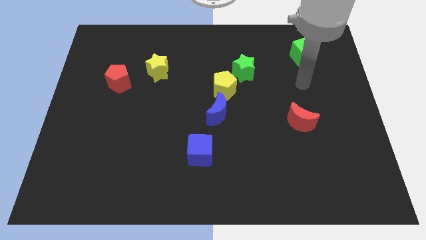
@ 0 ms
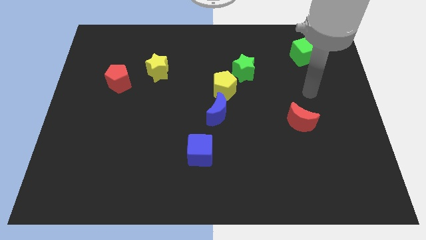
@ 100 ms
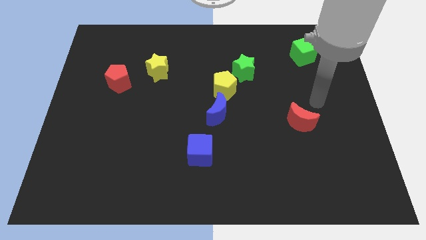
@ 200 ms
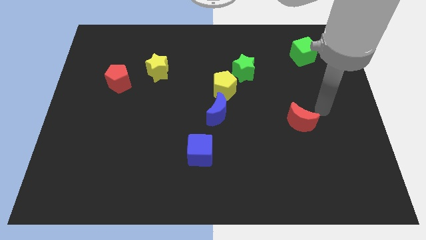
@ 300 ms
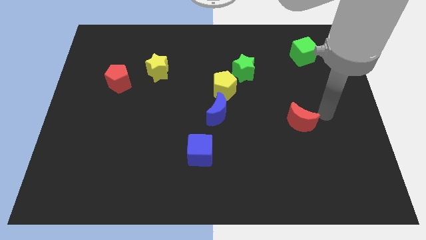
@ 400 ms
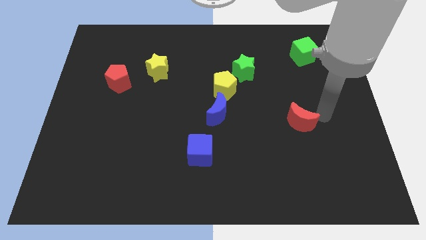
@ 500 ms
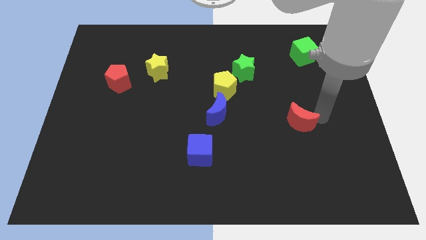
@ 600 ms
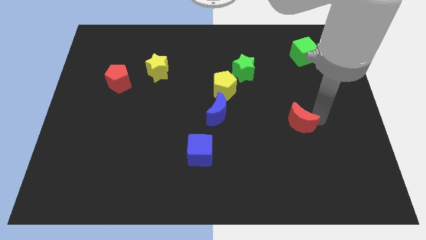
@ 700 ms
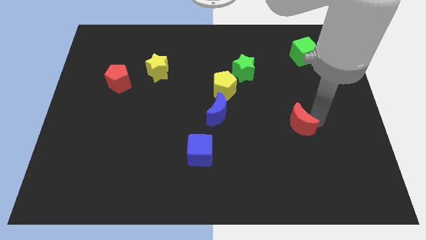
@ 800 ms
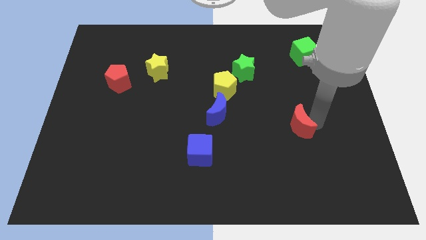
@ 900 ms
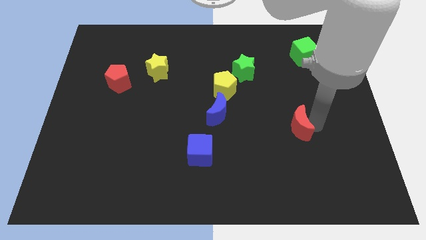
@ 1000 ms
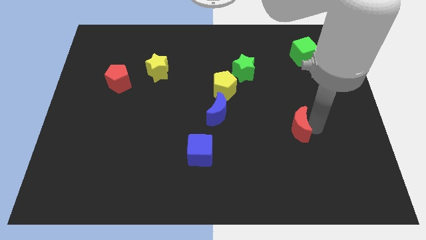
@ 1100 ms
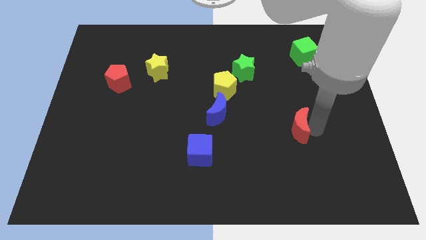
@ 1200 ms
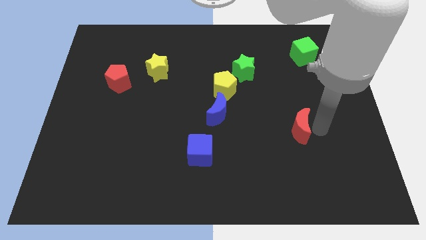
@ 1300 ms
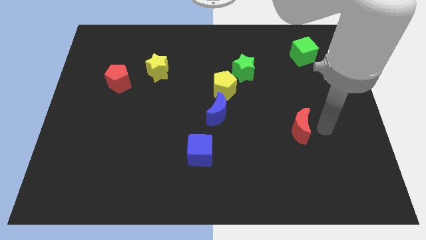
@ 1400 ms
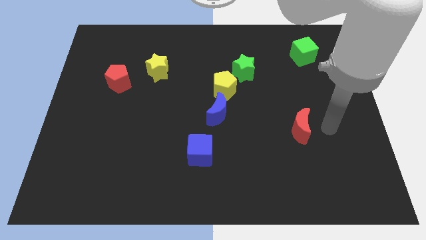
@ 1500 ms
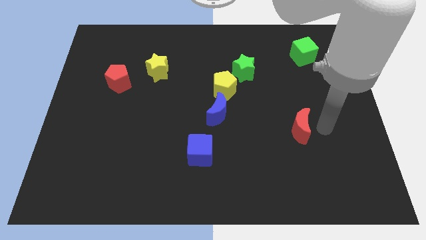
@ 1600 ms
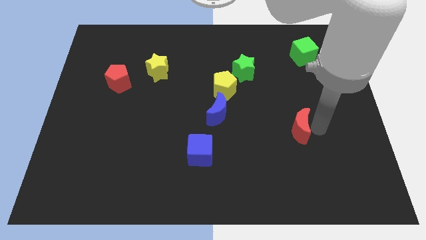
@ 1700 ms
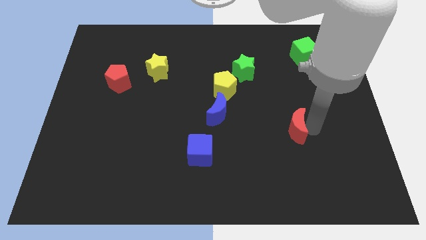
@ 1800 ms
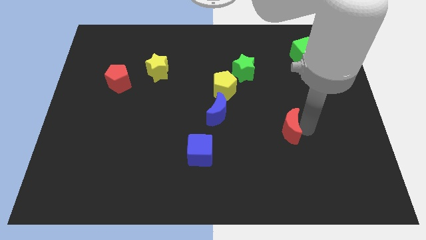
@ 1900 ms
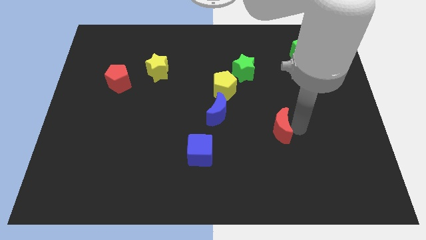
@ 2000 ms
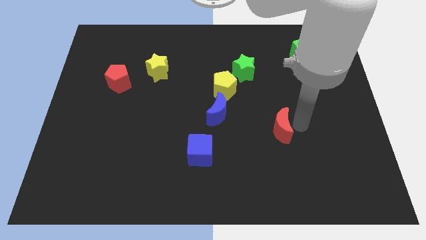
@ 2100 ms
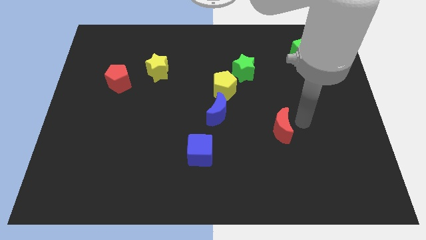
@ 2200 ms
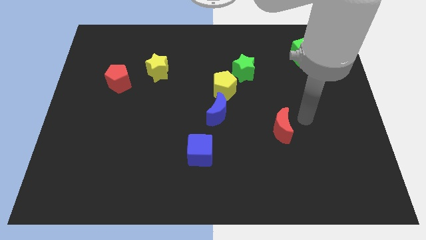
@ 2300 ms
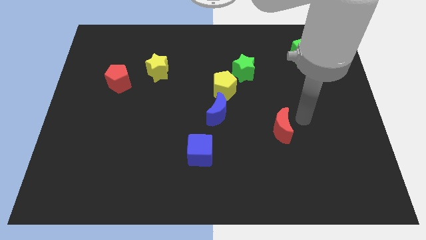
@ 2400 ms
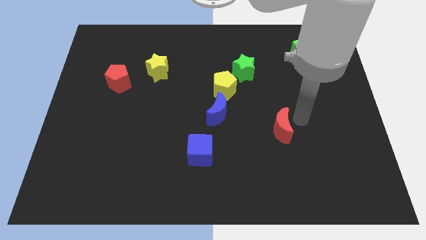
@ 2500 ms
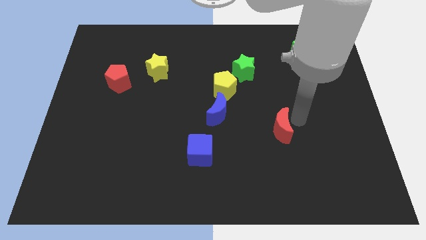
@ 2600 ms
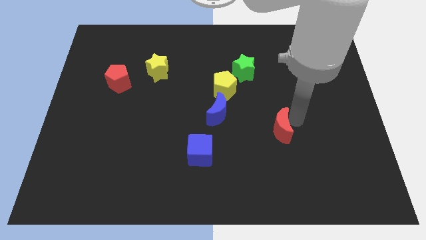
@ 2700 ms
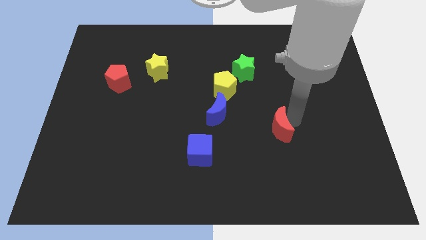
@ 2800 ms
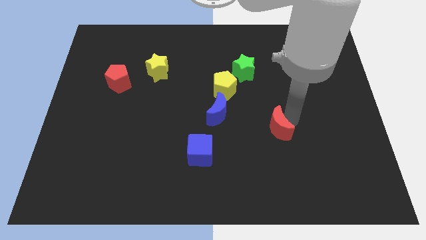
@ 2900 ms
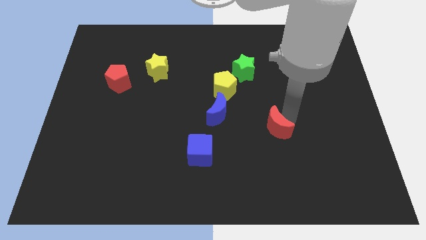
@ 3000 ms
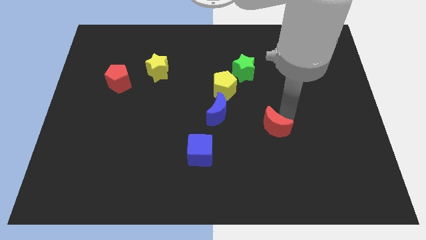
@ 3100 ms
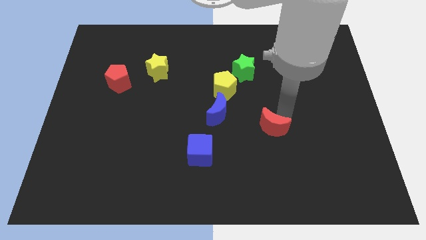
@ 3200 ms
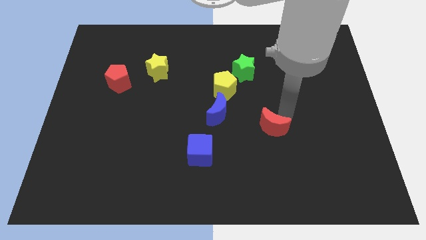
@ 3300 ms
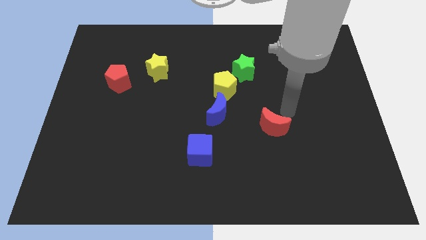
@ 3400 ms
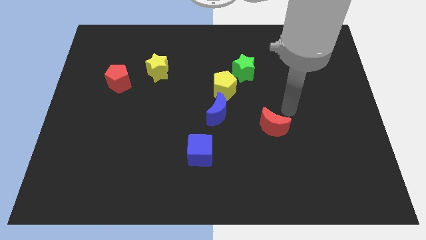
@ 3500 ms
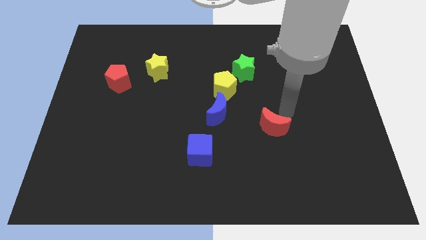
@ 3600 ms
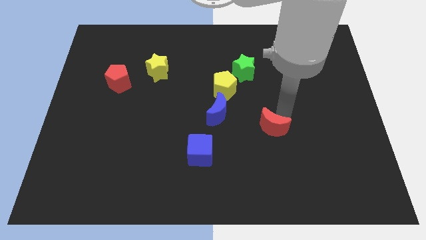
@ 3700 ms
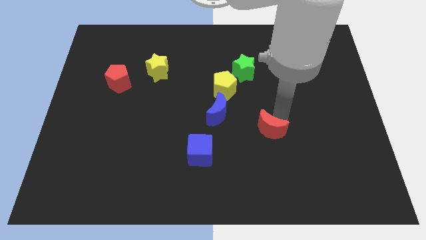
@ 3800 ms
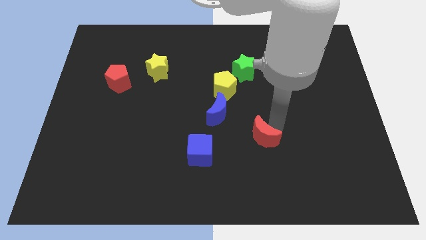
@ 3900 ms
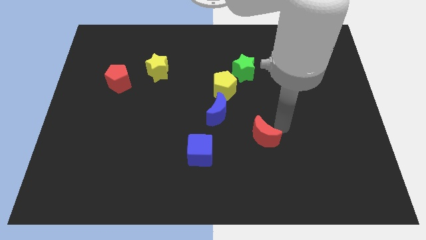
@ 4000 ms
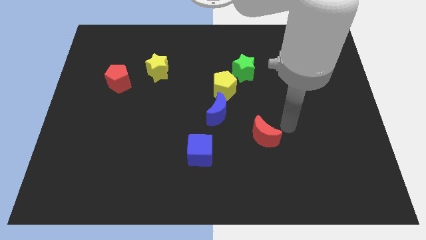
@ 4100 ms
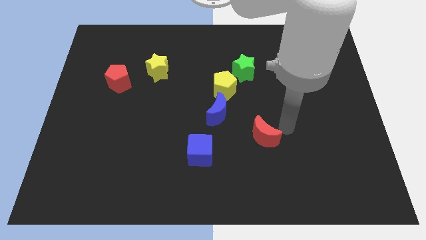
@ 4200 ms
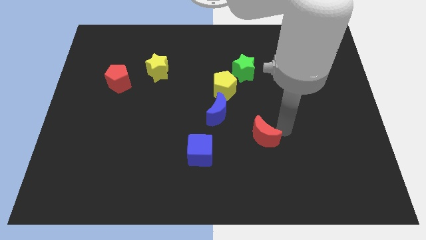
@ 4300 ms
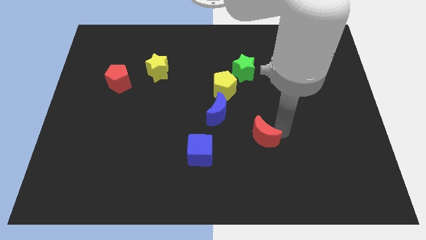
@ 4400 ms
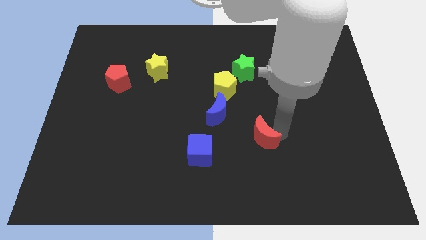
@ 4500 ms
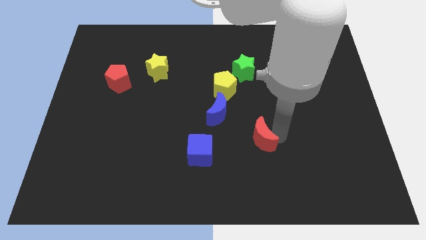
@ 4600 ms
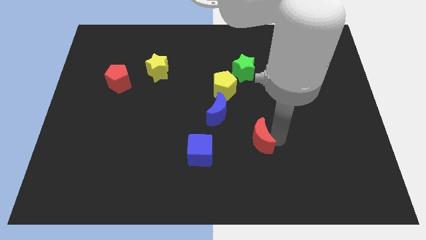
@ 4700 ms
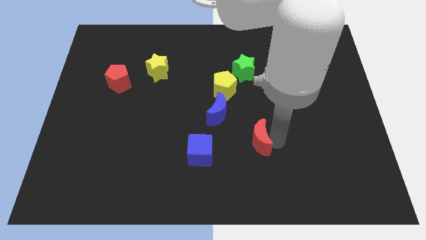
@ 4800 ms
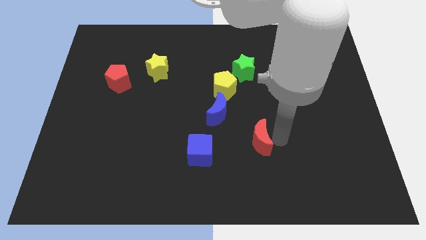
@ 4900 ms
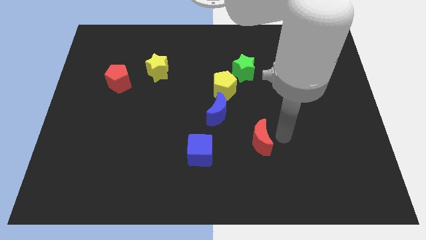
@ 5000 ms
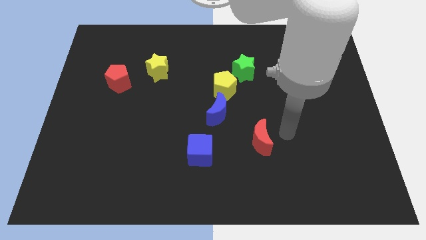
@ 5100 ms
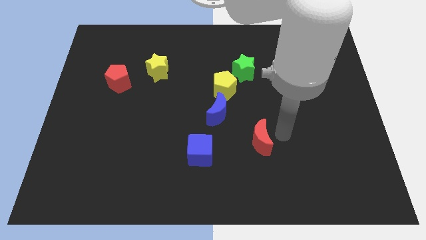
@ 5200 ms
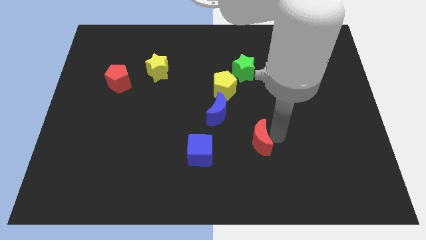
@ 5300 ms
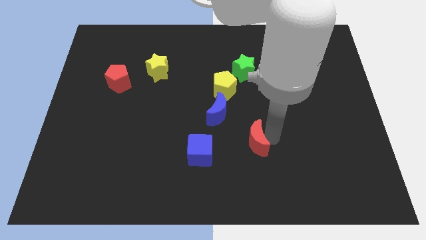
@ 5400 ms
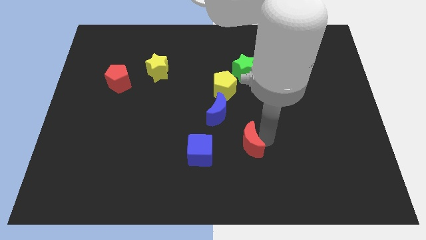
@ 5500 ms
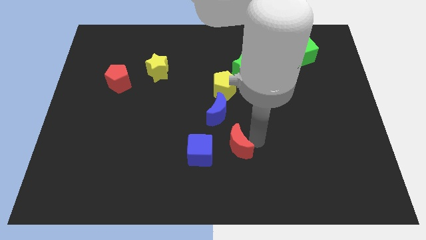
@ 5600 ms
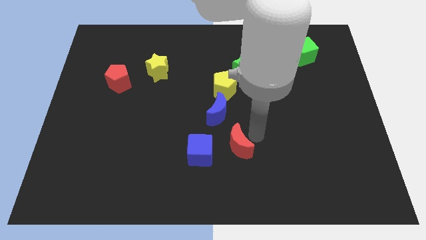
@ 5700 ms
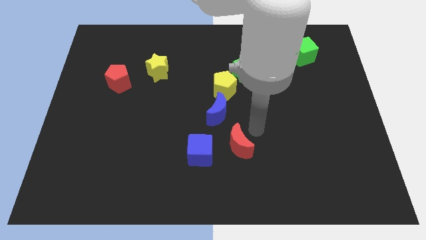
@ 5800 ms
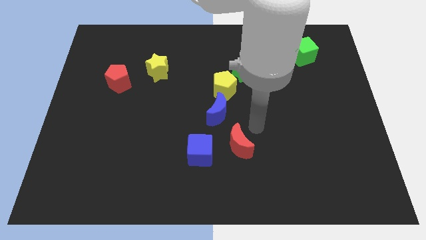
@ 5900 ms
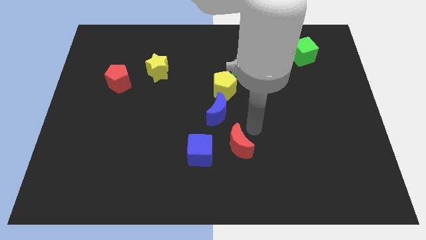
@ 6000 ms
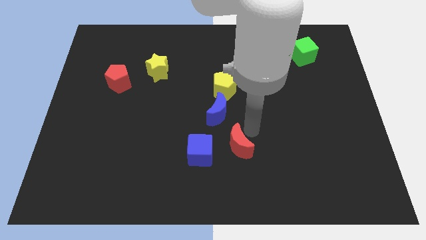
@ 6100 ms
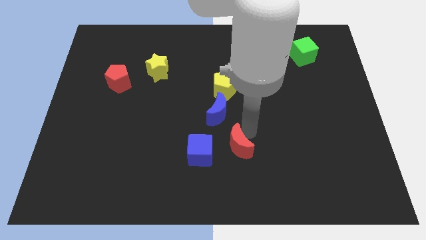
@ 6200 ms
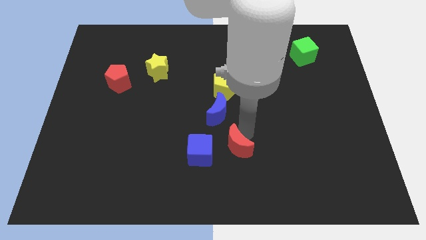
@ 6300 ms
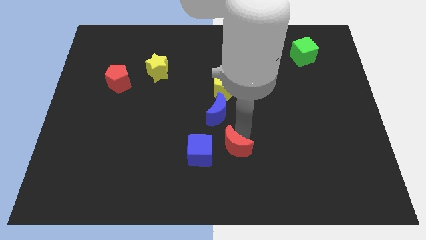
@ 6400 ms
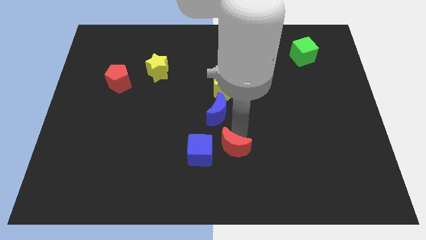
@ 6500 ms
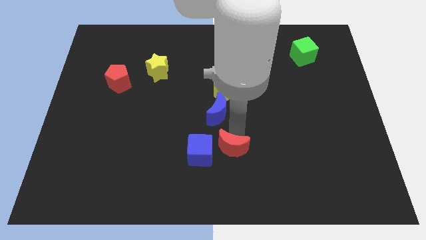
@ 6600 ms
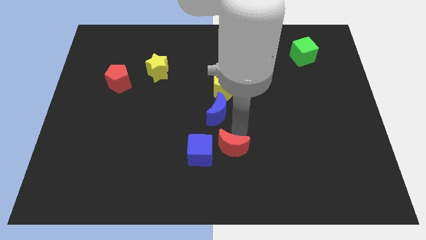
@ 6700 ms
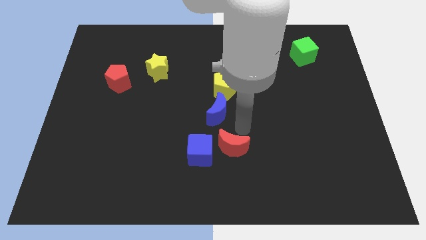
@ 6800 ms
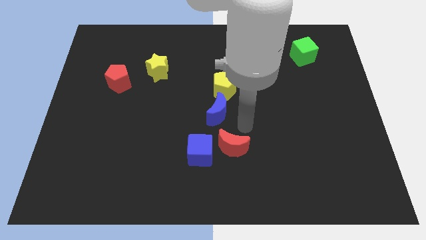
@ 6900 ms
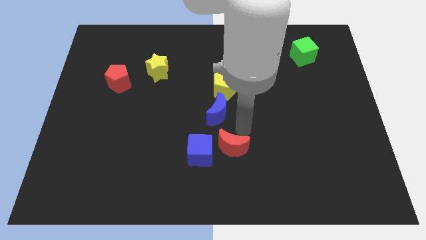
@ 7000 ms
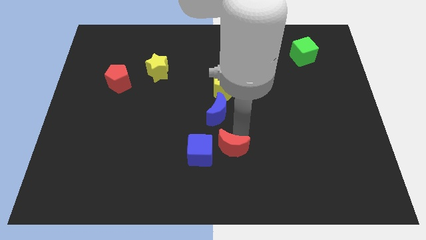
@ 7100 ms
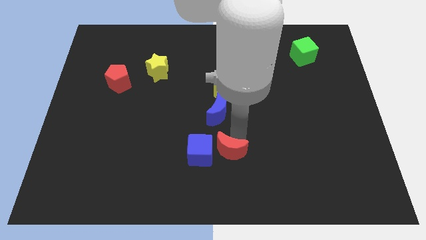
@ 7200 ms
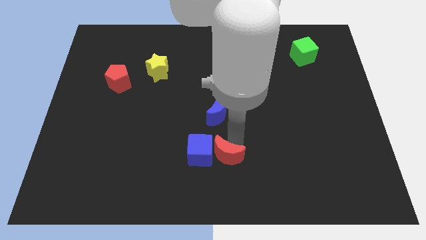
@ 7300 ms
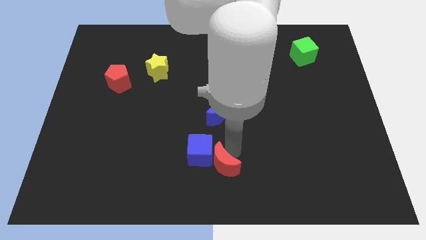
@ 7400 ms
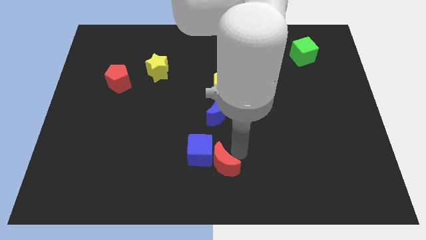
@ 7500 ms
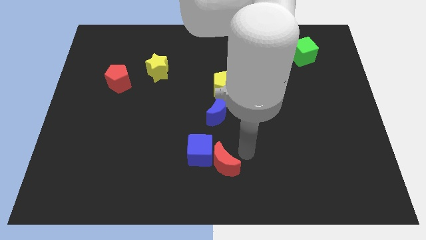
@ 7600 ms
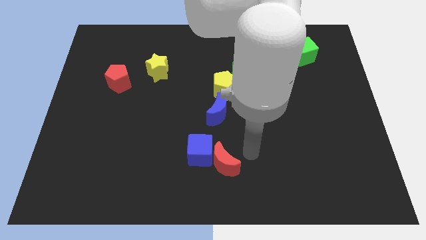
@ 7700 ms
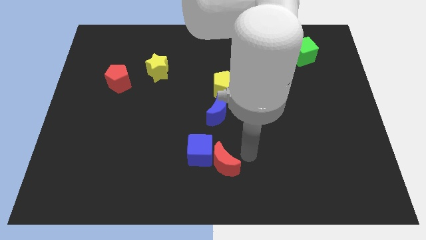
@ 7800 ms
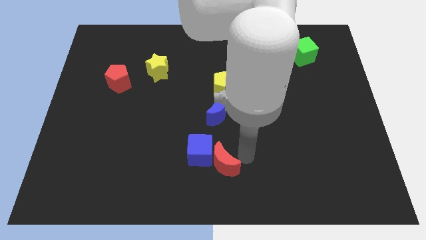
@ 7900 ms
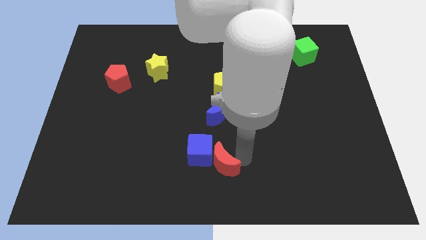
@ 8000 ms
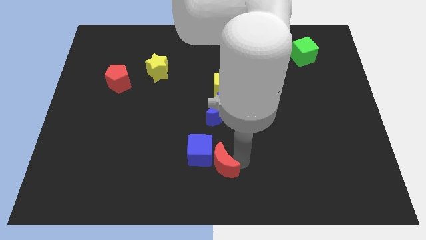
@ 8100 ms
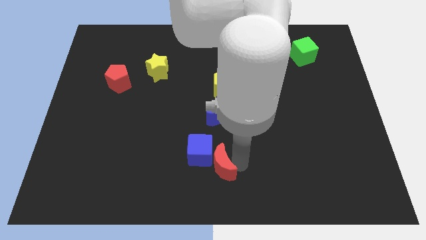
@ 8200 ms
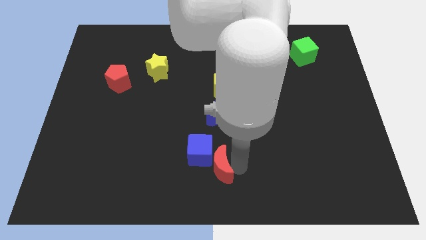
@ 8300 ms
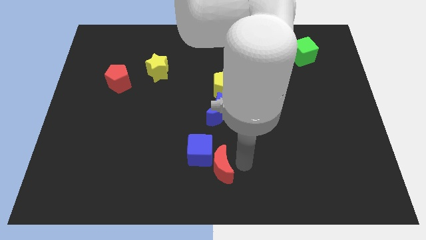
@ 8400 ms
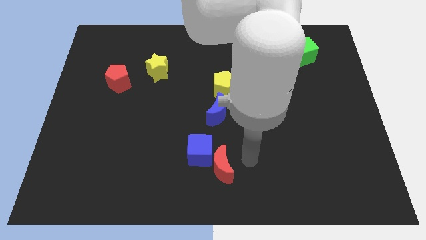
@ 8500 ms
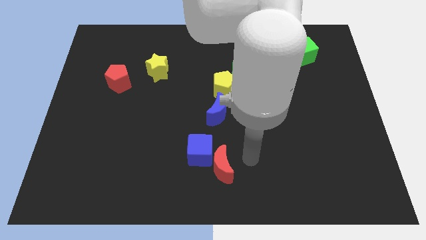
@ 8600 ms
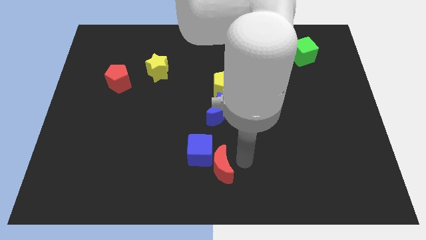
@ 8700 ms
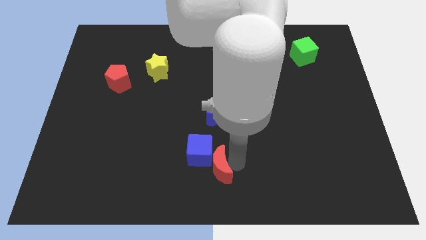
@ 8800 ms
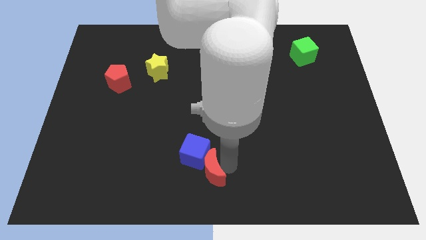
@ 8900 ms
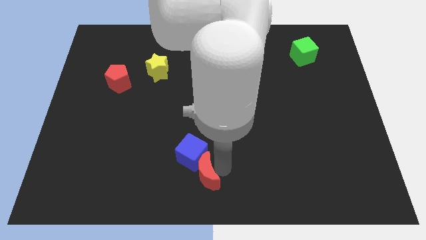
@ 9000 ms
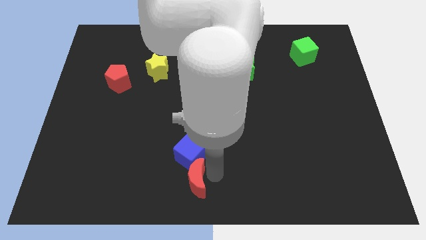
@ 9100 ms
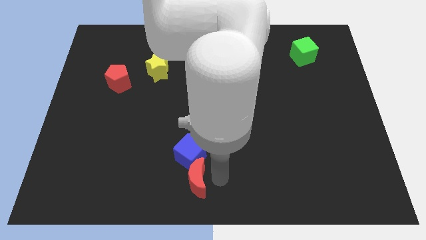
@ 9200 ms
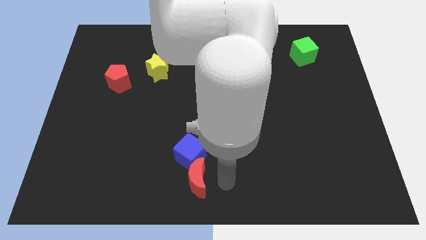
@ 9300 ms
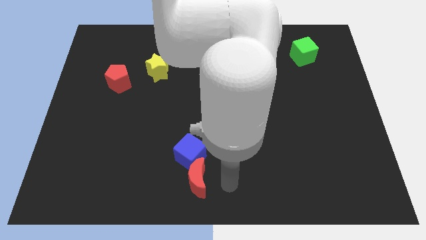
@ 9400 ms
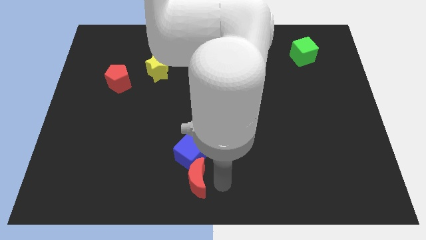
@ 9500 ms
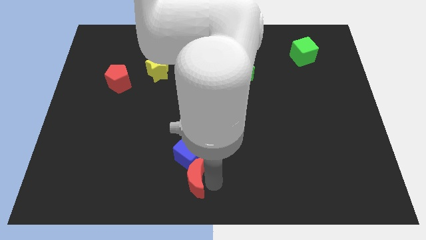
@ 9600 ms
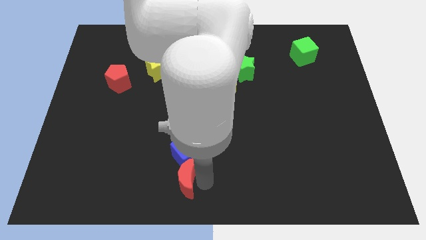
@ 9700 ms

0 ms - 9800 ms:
slide the red moon to the bottom left side of the blue cube
